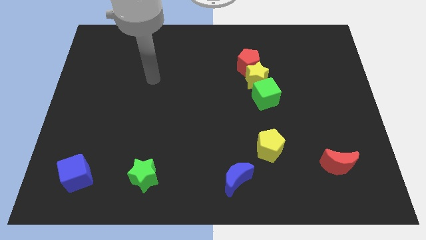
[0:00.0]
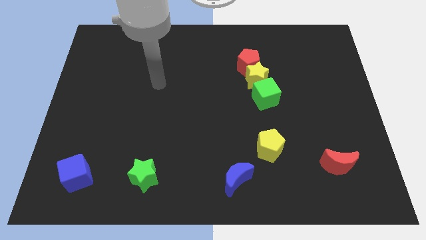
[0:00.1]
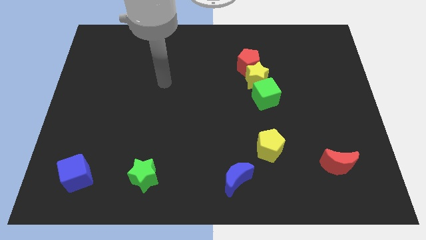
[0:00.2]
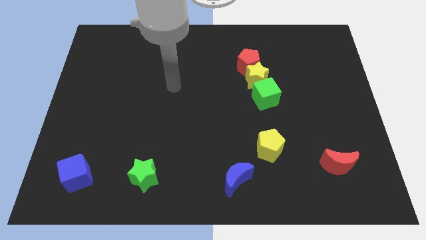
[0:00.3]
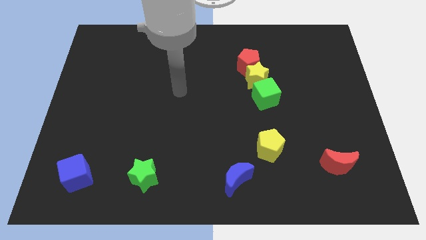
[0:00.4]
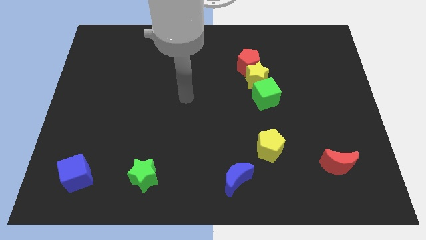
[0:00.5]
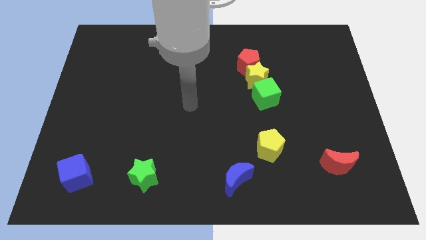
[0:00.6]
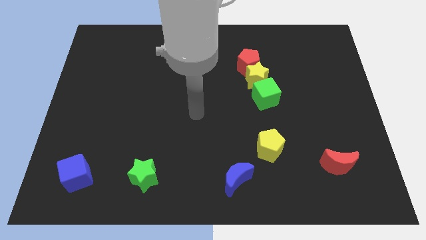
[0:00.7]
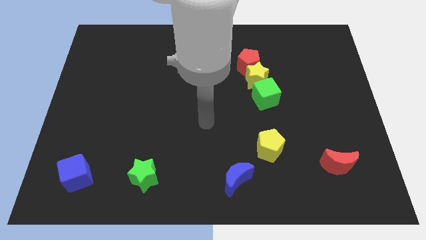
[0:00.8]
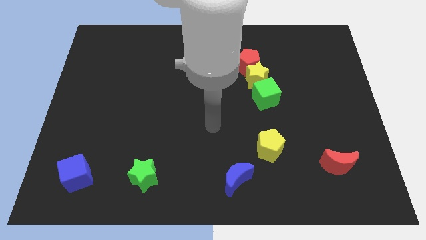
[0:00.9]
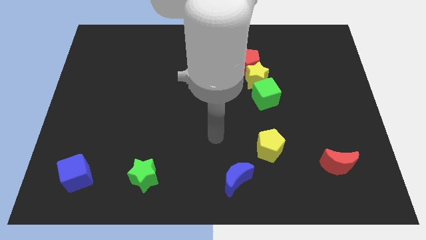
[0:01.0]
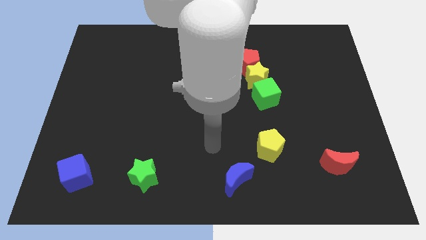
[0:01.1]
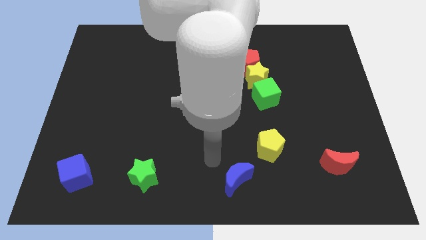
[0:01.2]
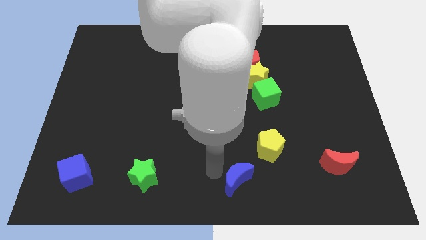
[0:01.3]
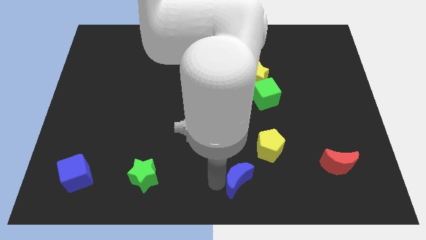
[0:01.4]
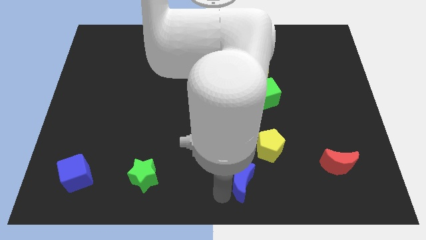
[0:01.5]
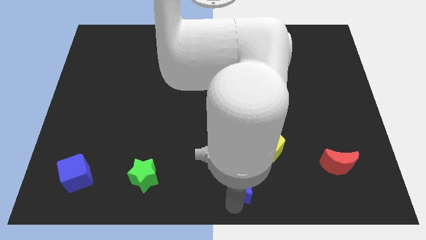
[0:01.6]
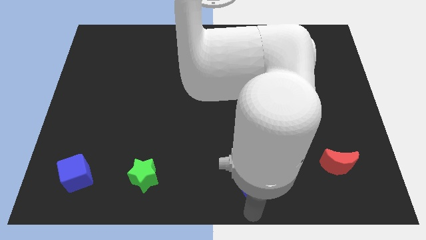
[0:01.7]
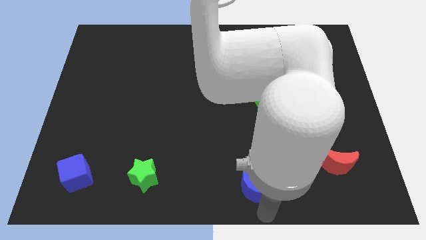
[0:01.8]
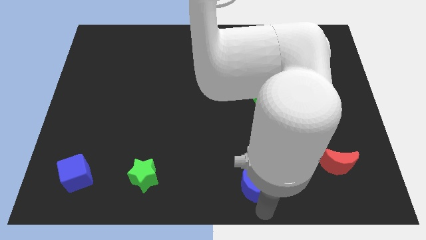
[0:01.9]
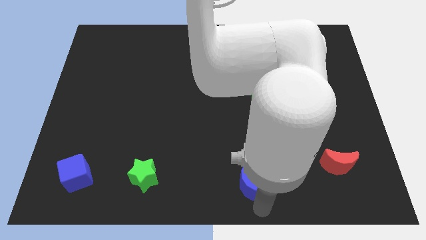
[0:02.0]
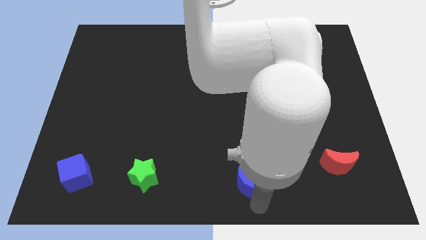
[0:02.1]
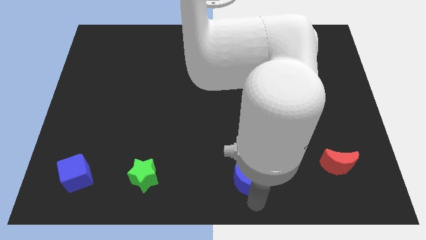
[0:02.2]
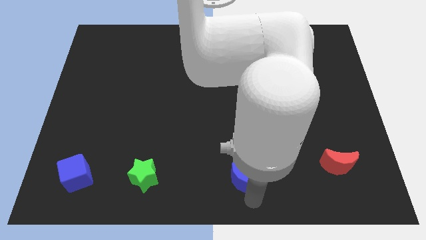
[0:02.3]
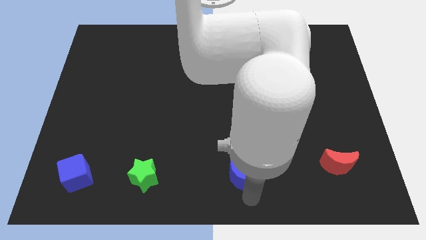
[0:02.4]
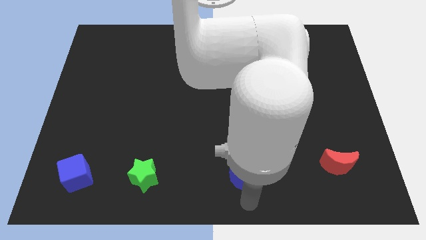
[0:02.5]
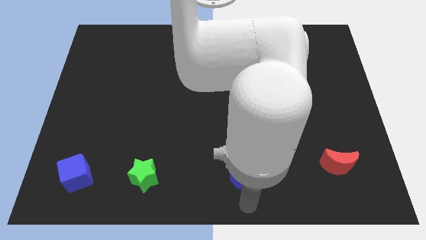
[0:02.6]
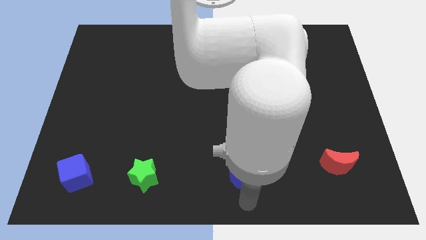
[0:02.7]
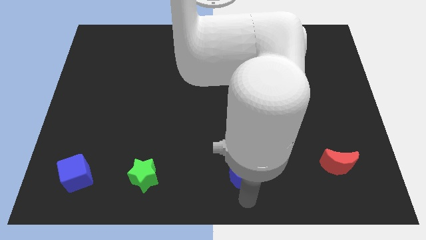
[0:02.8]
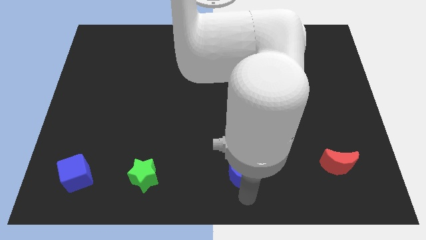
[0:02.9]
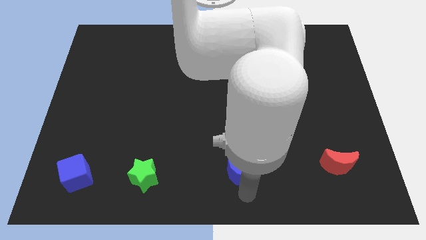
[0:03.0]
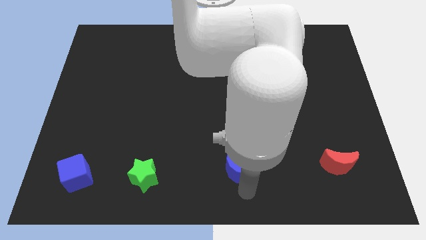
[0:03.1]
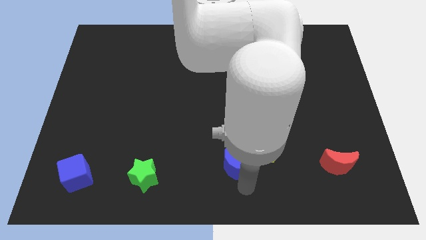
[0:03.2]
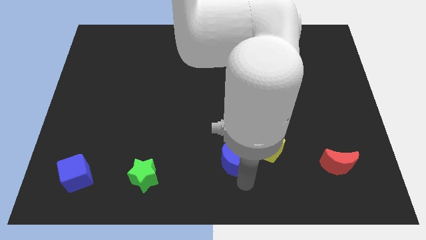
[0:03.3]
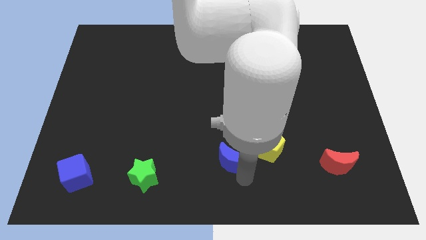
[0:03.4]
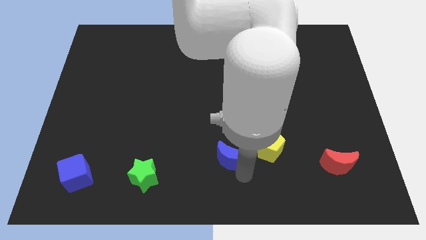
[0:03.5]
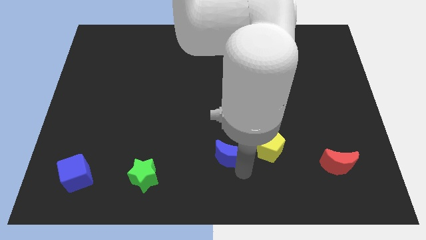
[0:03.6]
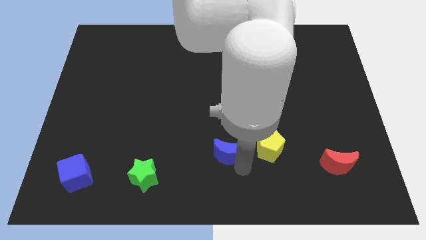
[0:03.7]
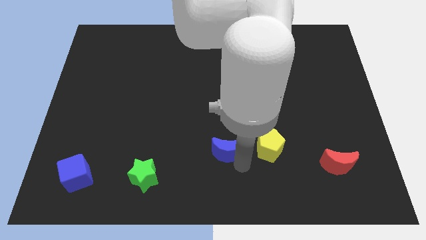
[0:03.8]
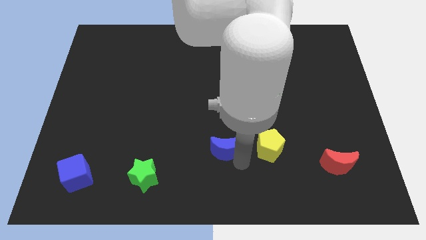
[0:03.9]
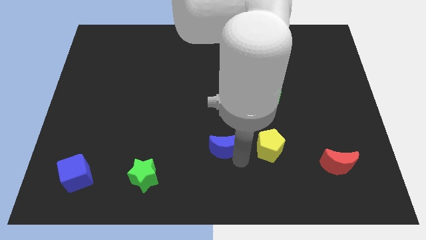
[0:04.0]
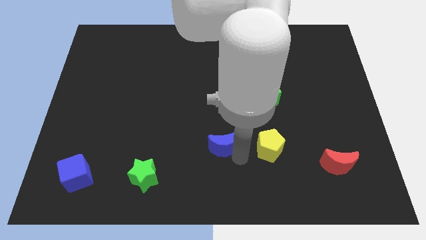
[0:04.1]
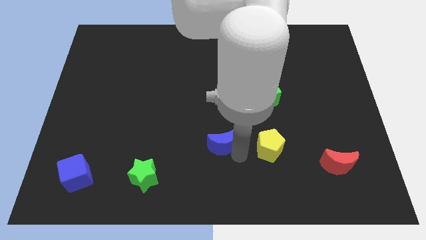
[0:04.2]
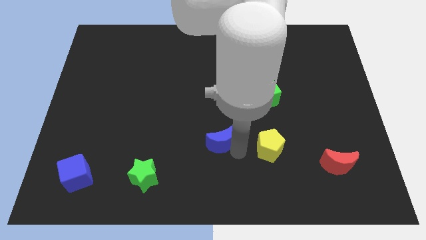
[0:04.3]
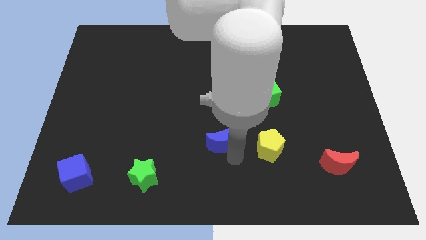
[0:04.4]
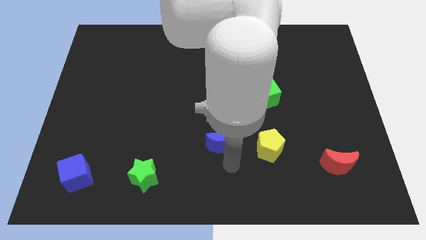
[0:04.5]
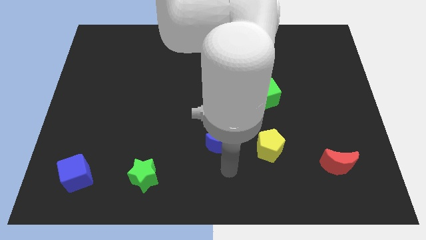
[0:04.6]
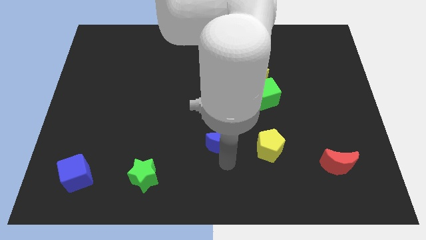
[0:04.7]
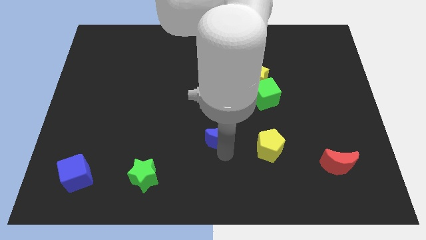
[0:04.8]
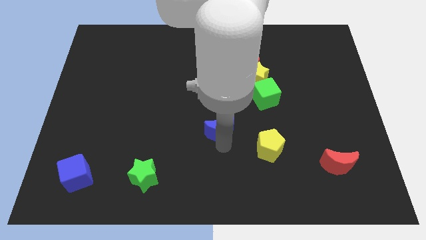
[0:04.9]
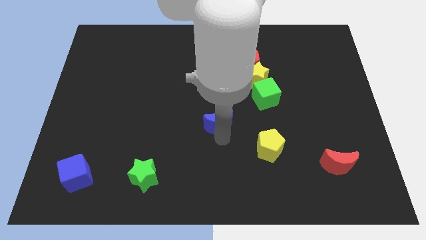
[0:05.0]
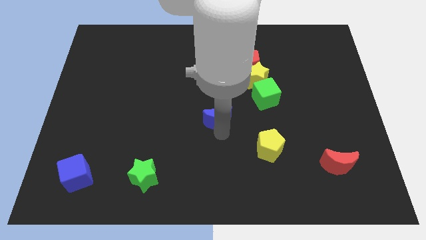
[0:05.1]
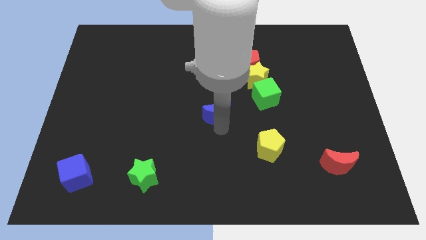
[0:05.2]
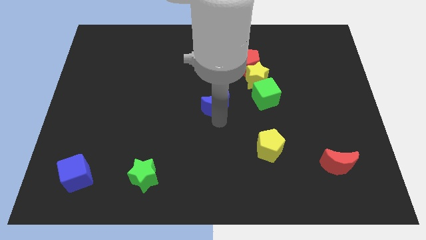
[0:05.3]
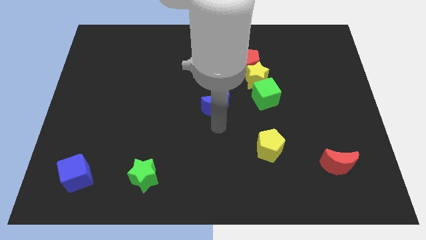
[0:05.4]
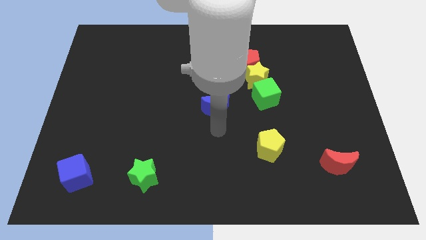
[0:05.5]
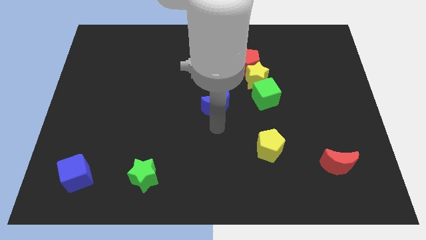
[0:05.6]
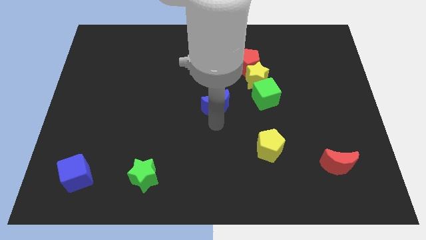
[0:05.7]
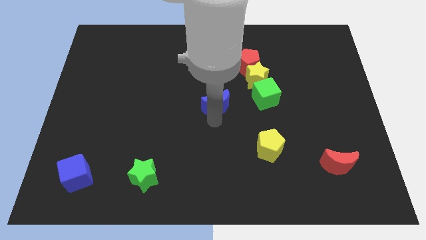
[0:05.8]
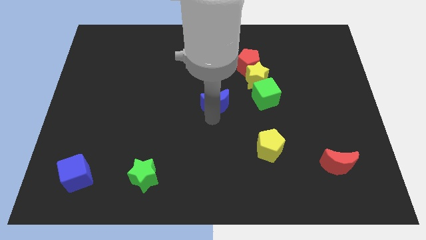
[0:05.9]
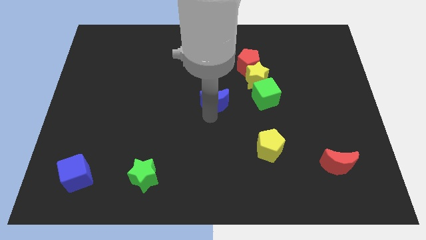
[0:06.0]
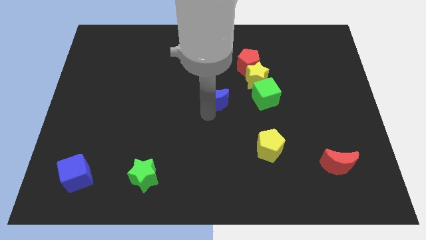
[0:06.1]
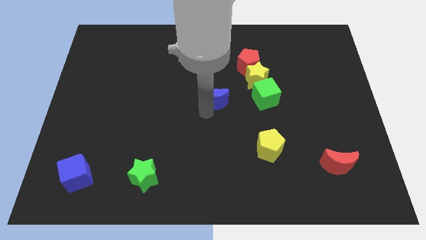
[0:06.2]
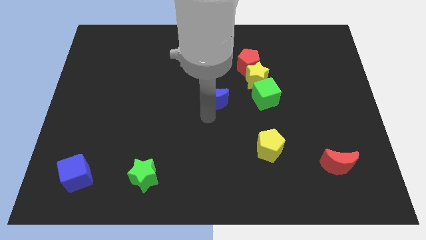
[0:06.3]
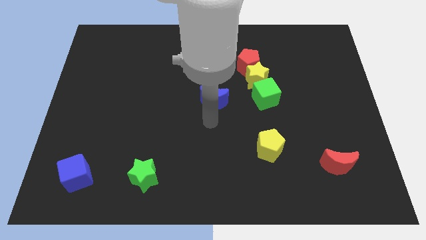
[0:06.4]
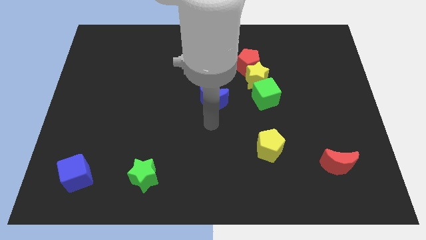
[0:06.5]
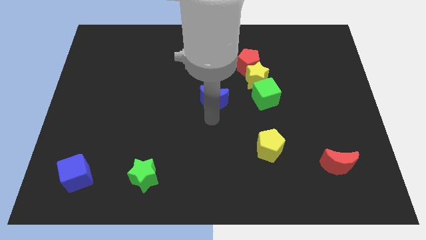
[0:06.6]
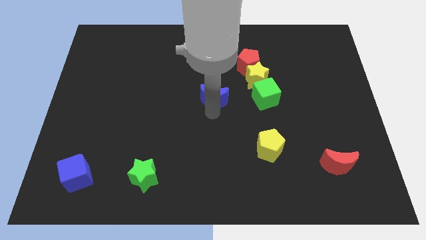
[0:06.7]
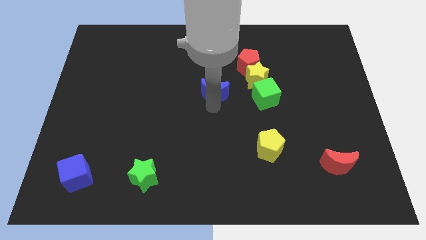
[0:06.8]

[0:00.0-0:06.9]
slide the blue moon left of the yellow star
